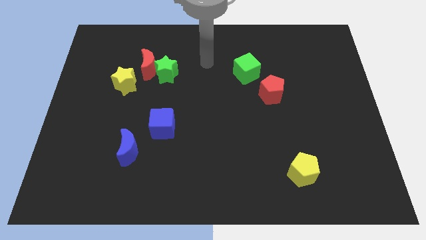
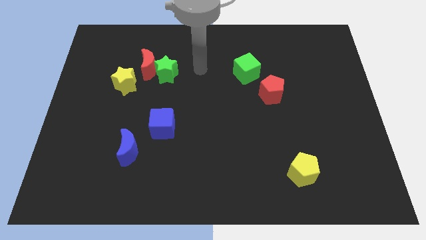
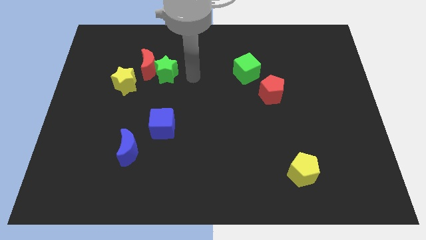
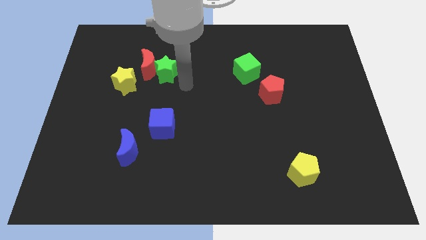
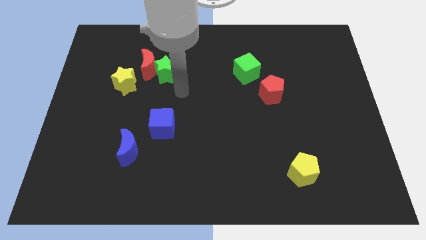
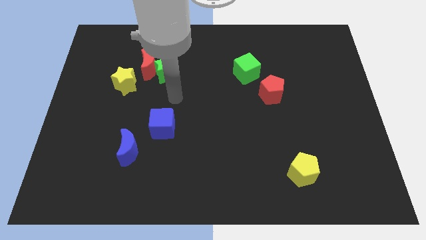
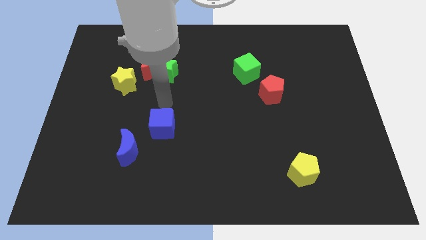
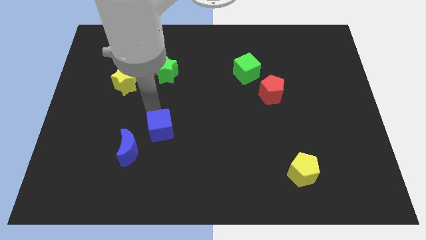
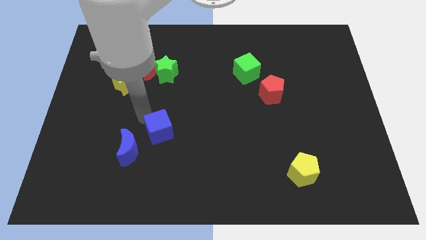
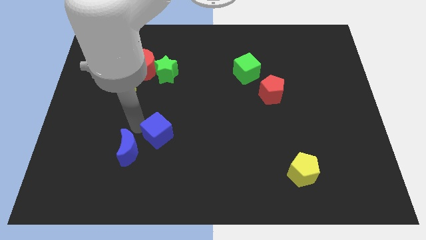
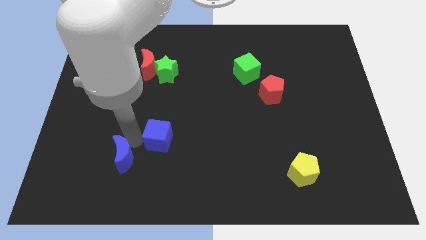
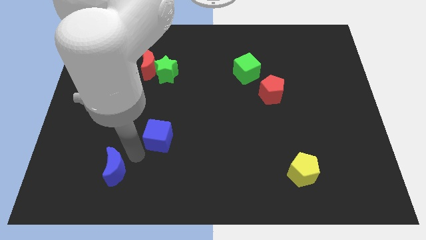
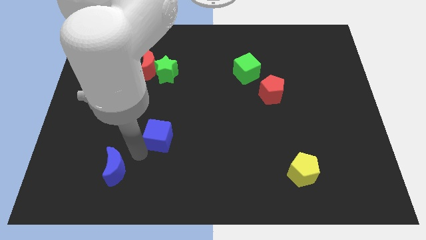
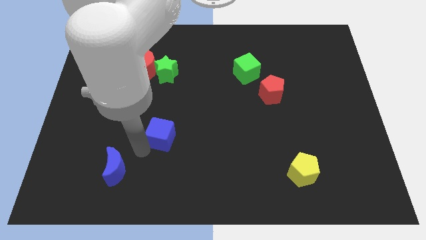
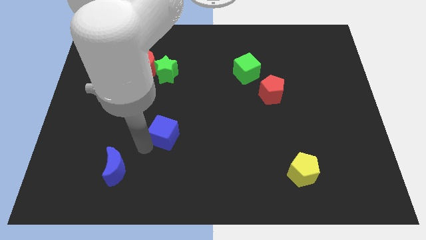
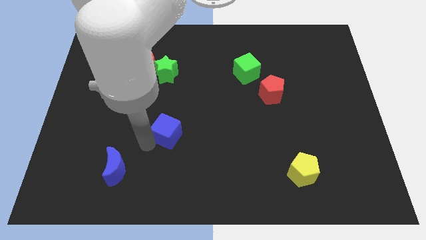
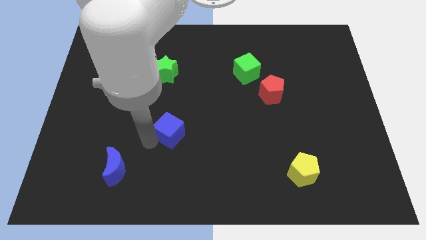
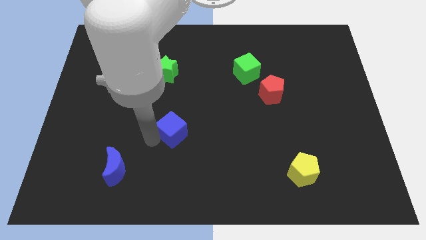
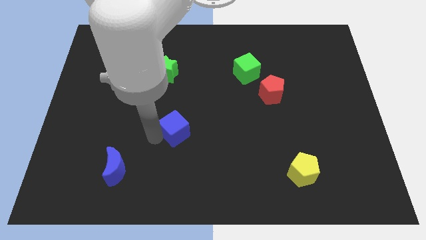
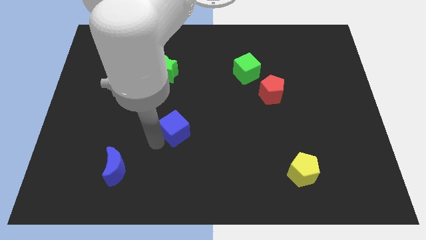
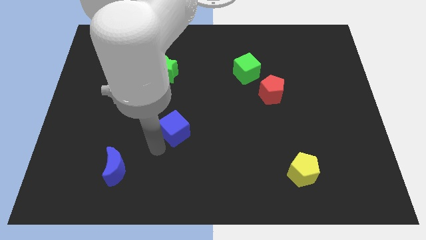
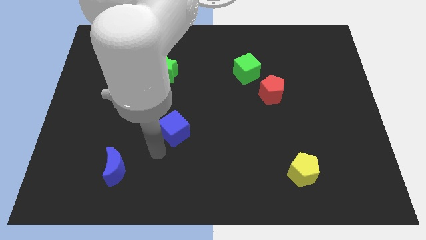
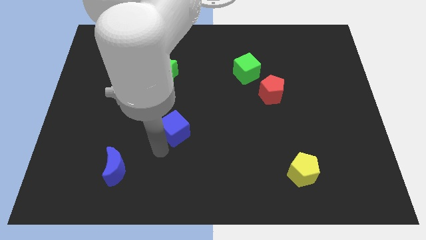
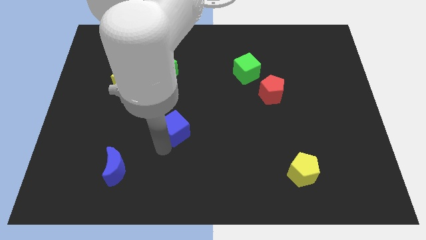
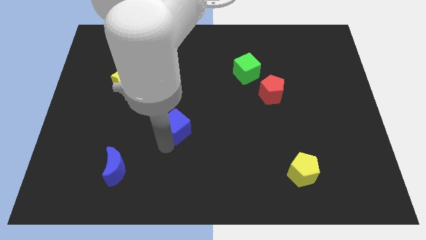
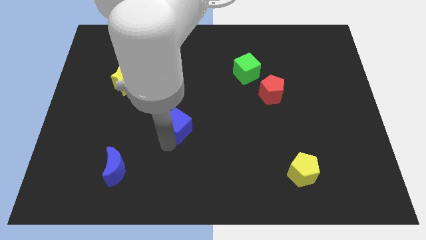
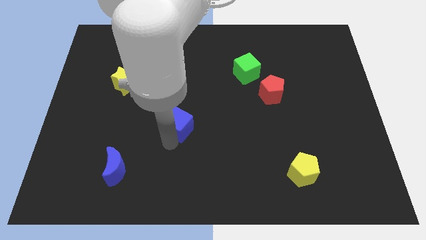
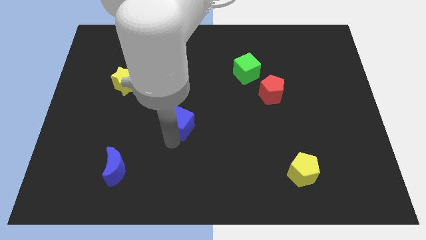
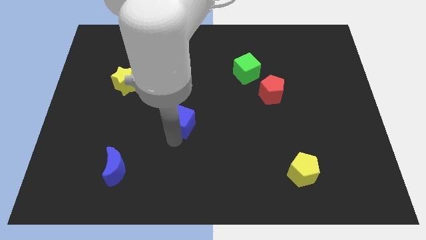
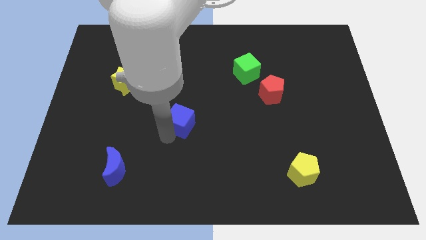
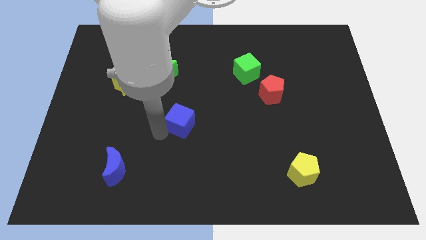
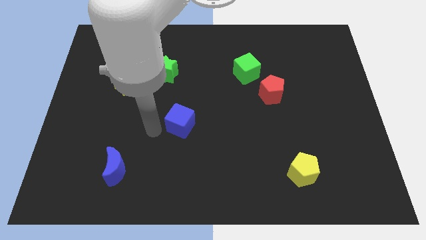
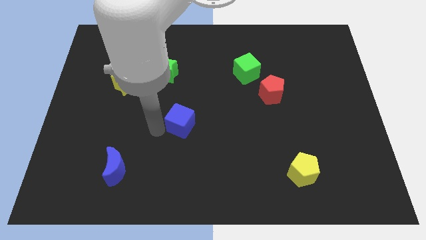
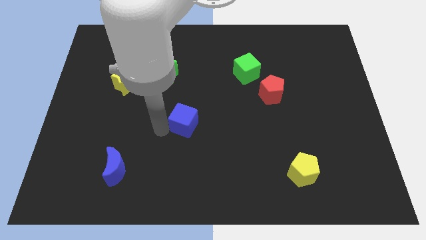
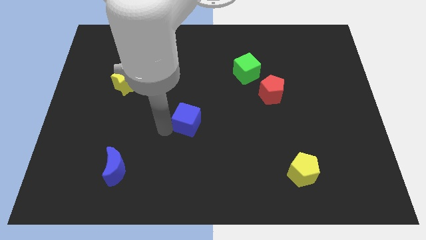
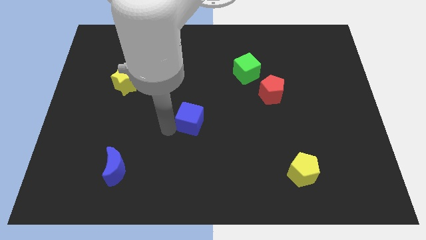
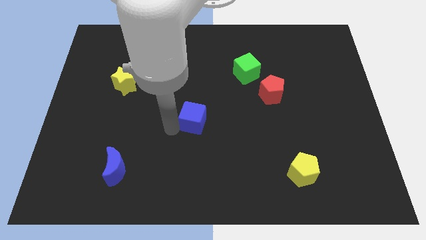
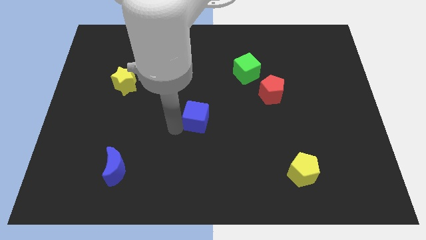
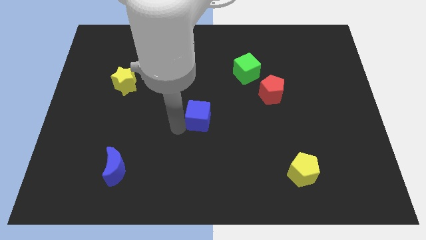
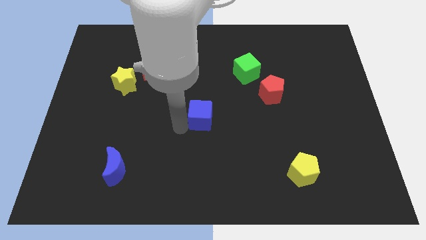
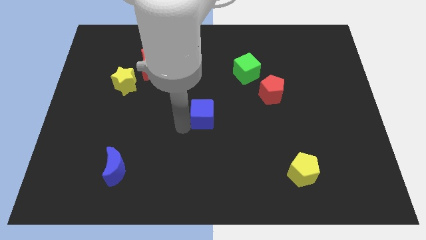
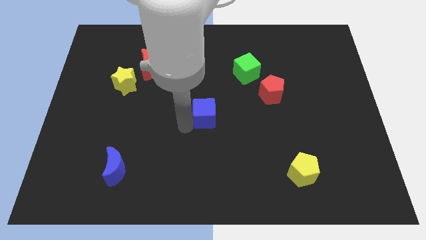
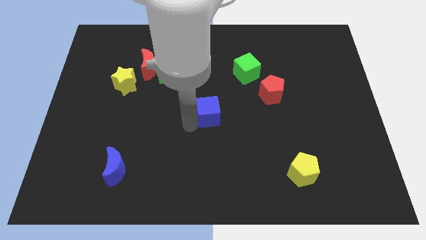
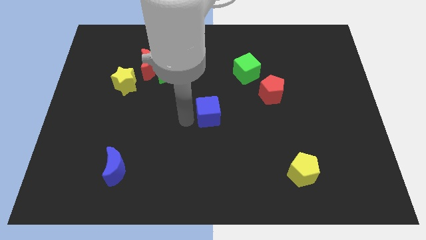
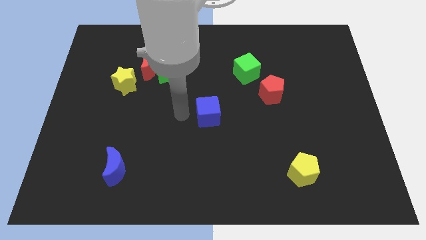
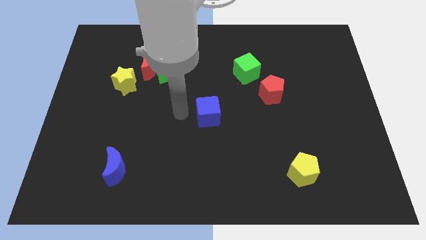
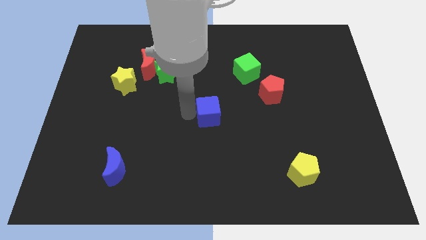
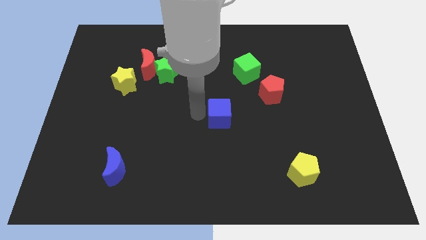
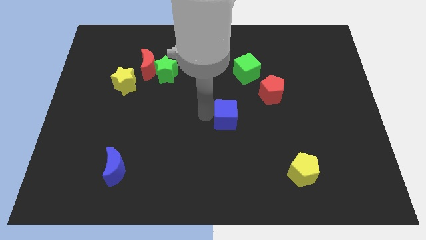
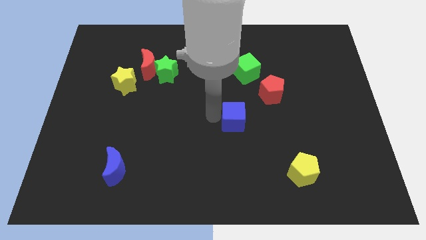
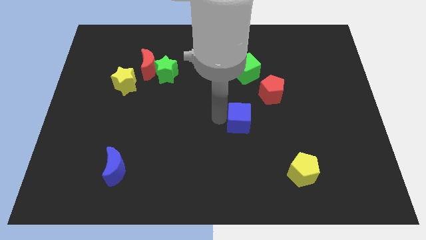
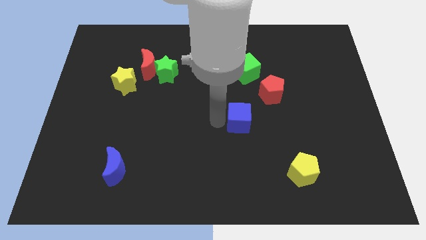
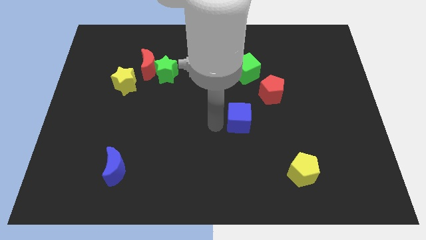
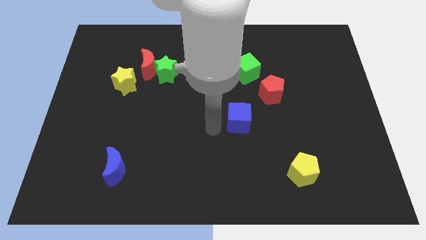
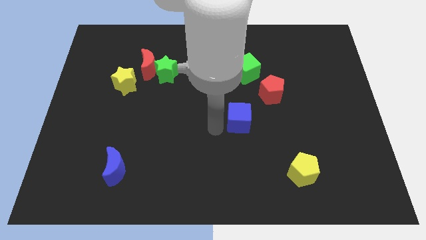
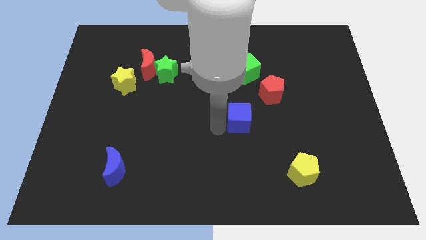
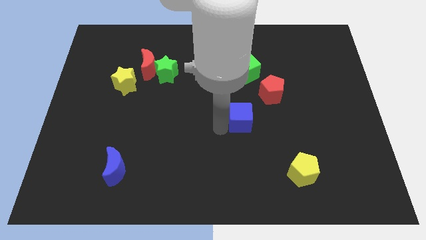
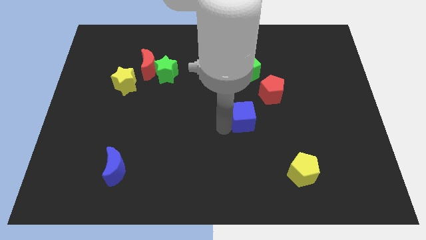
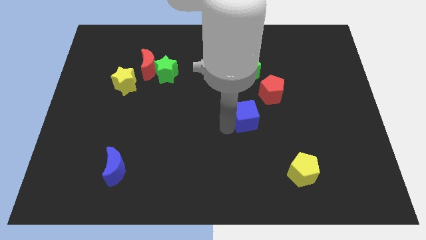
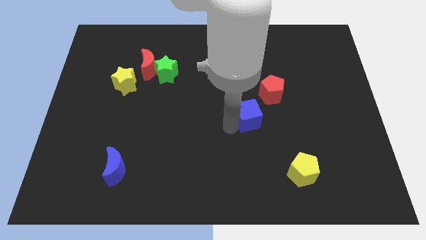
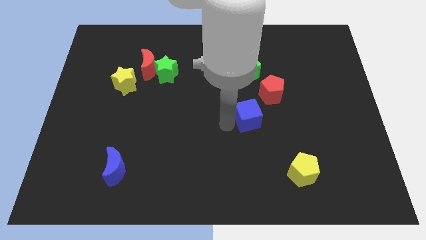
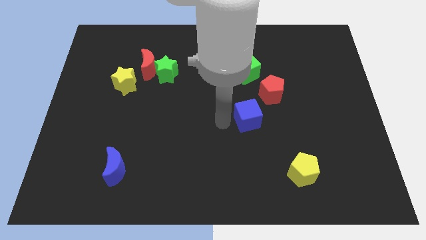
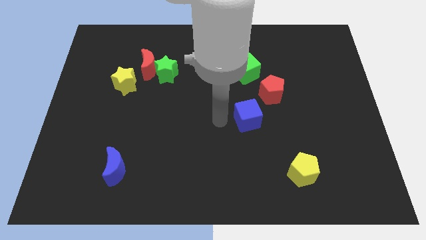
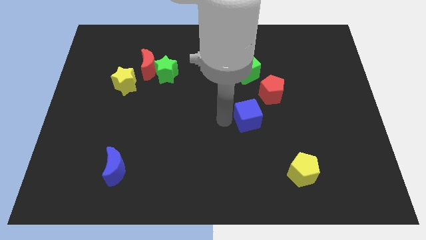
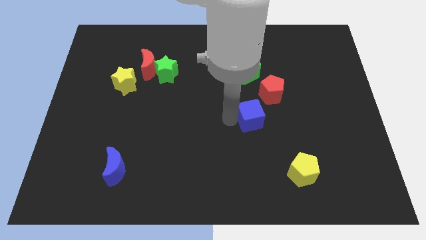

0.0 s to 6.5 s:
move the blue cube right

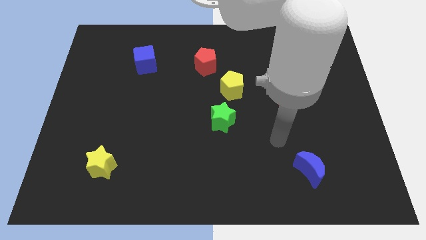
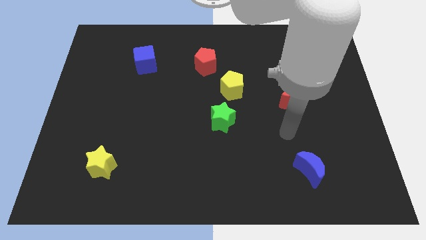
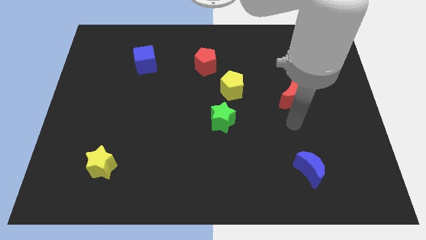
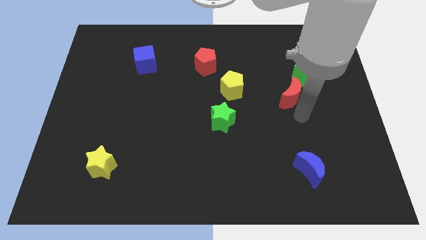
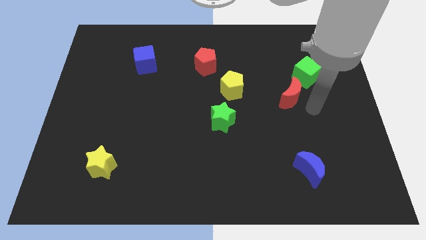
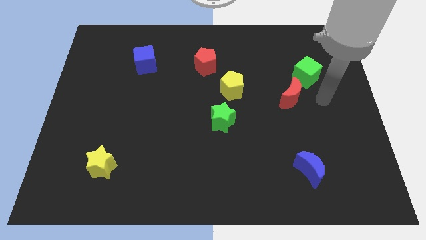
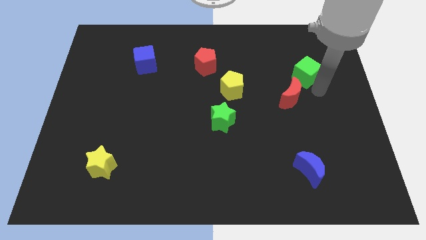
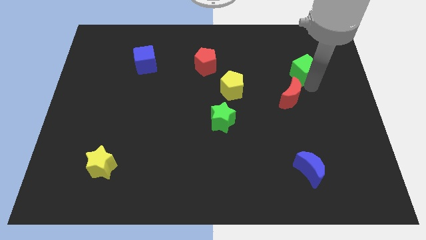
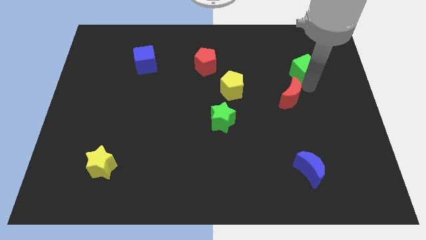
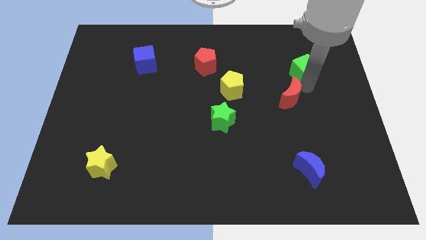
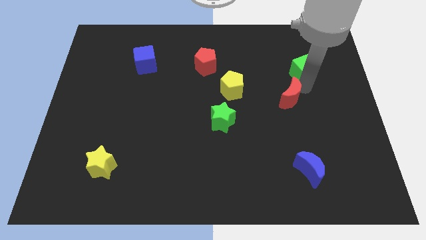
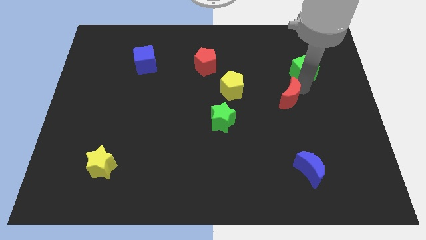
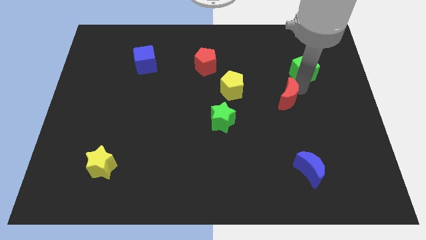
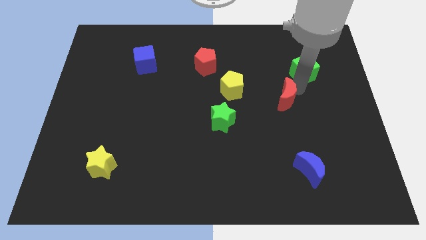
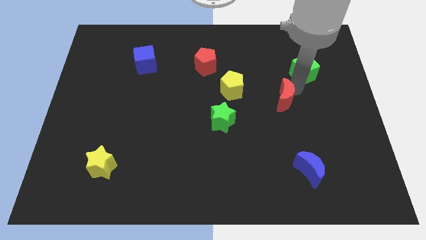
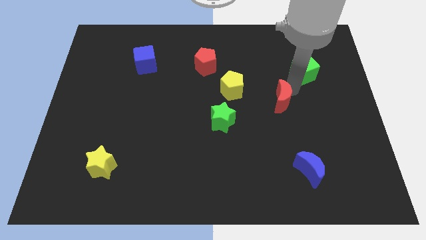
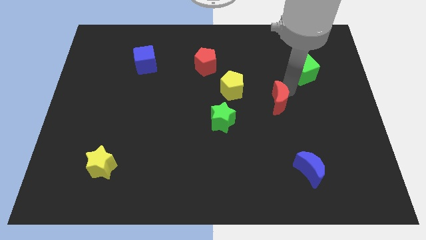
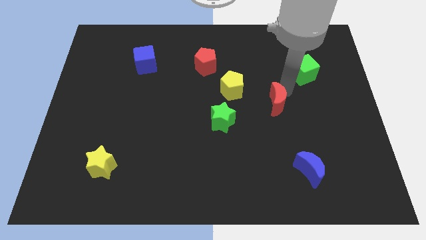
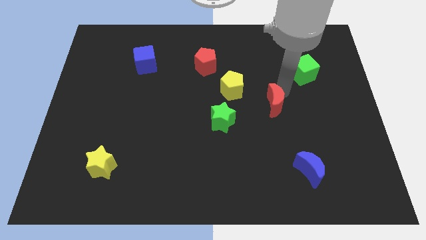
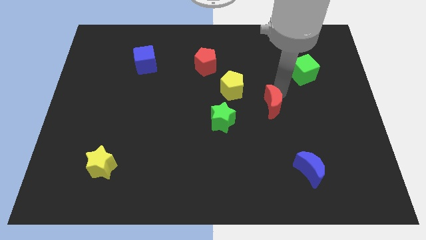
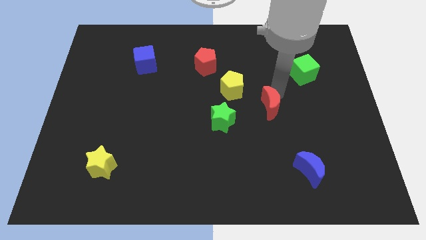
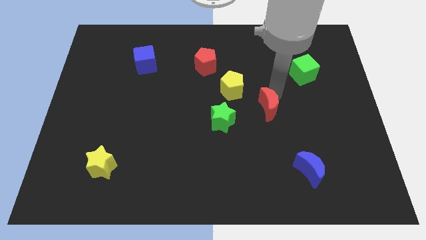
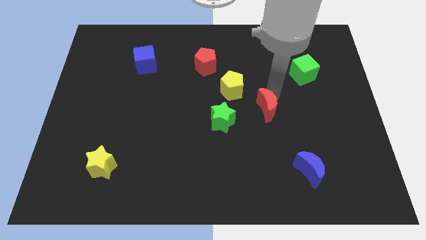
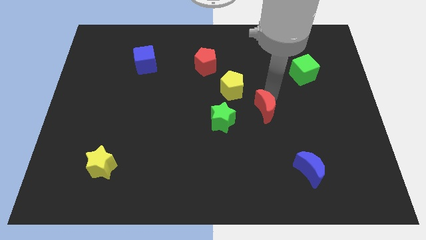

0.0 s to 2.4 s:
move the red moon slightly downwards and left diagonally
